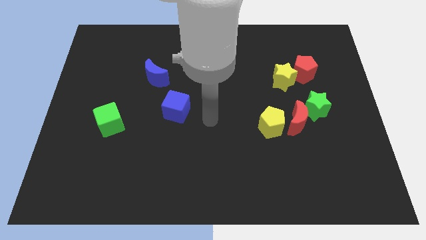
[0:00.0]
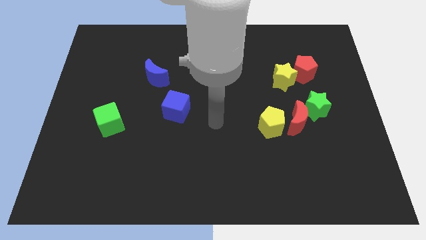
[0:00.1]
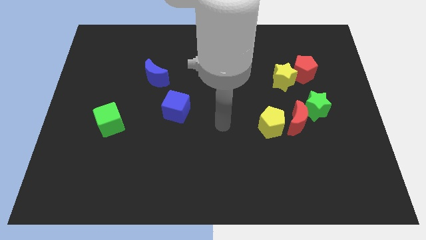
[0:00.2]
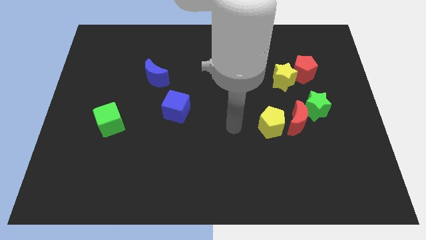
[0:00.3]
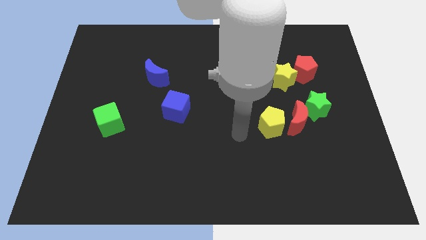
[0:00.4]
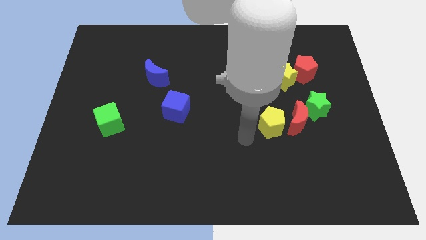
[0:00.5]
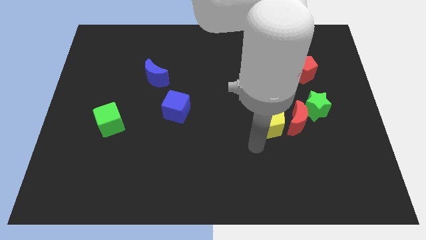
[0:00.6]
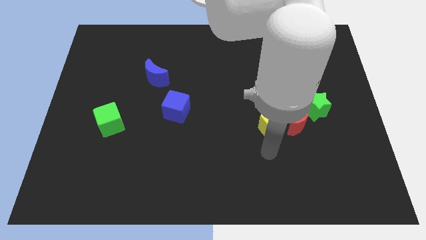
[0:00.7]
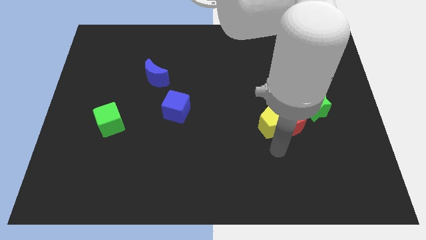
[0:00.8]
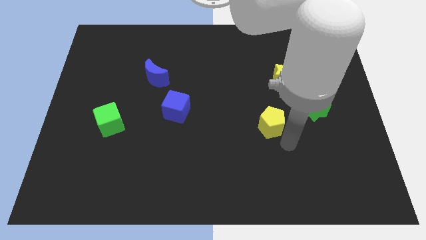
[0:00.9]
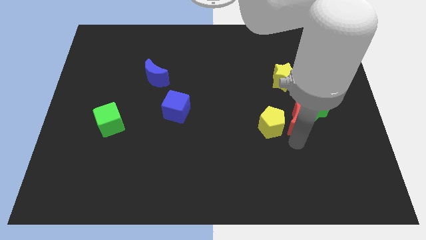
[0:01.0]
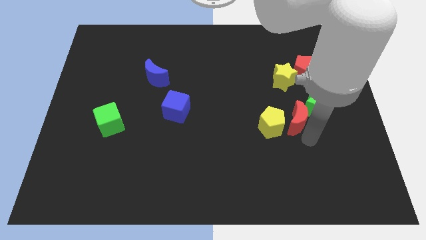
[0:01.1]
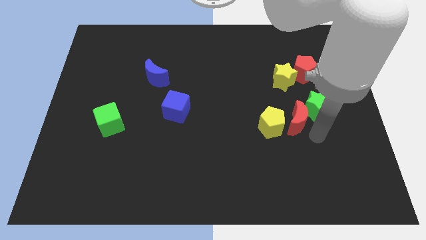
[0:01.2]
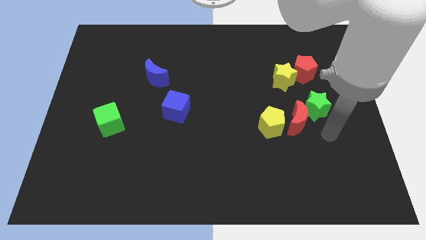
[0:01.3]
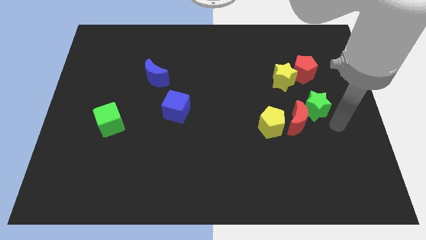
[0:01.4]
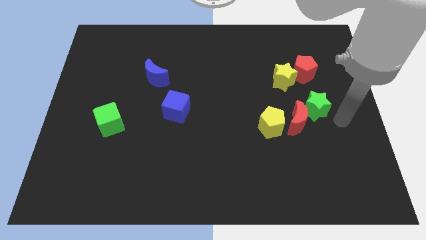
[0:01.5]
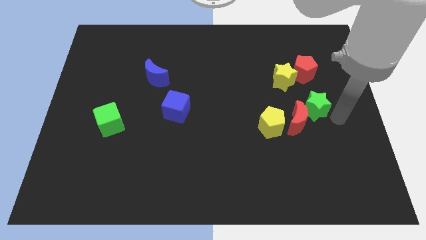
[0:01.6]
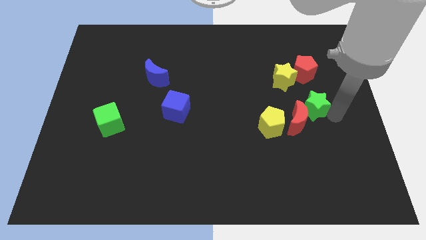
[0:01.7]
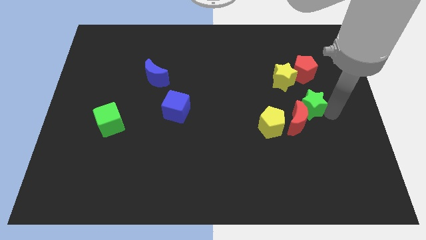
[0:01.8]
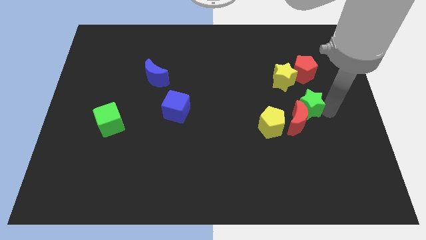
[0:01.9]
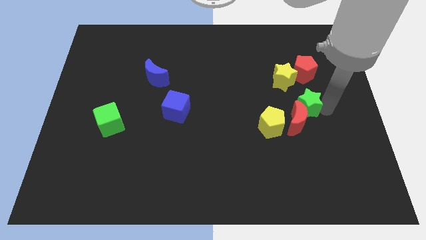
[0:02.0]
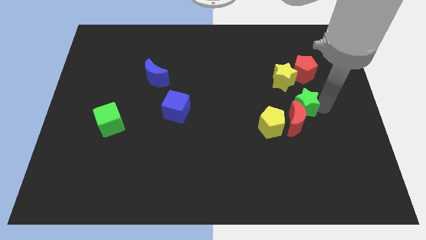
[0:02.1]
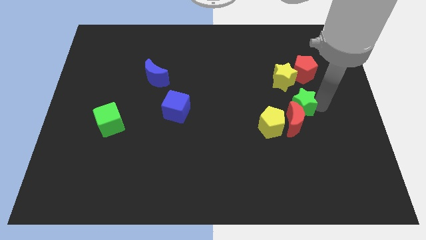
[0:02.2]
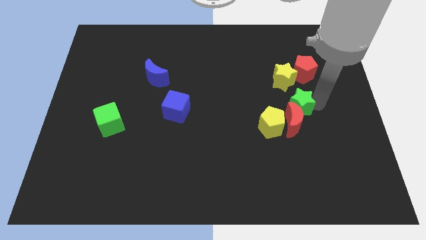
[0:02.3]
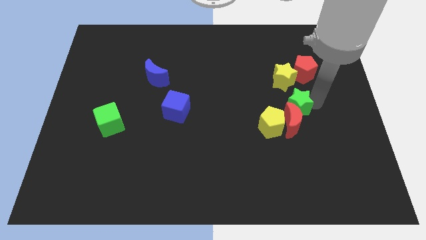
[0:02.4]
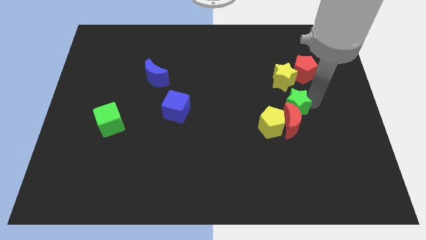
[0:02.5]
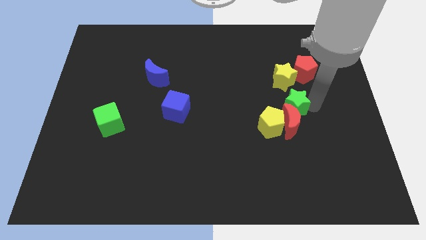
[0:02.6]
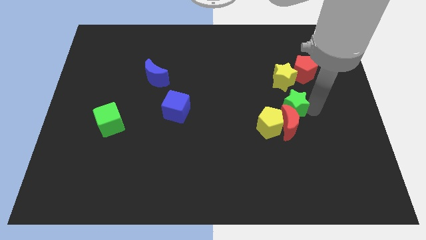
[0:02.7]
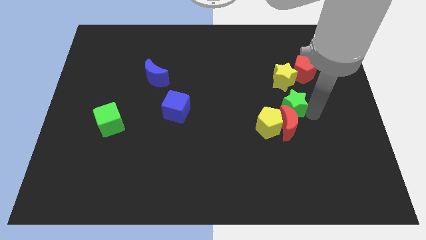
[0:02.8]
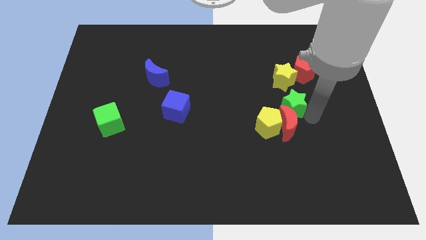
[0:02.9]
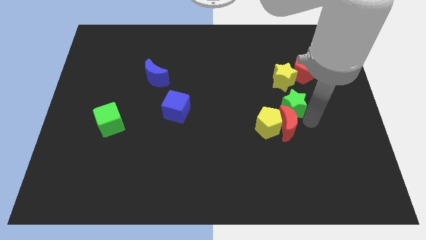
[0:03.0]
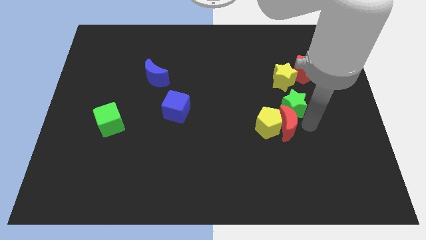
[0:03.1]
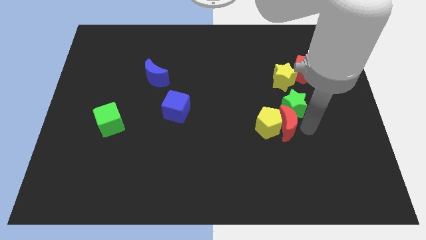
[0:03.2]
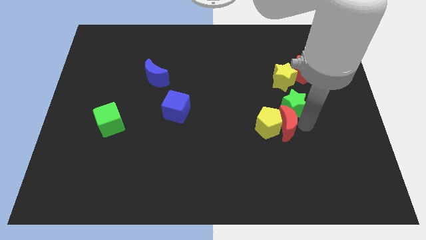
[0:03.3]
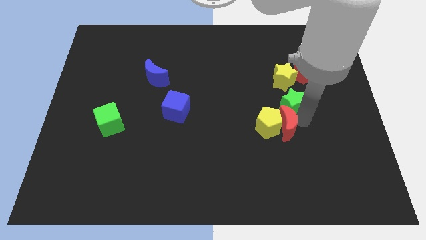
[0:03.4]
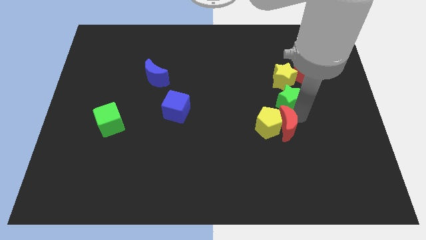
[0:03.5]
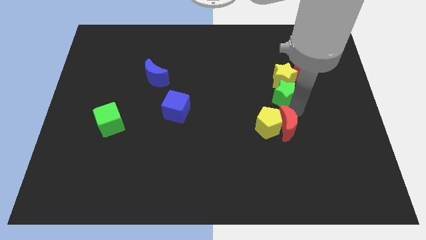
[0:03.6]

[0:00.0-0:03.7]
push the green star diagonally up and to the left somewhat

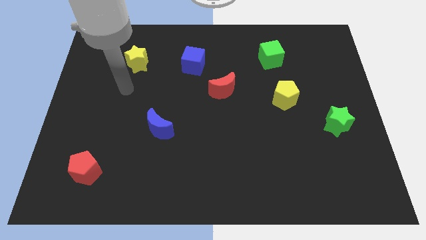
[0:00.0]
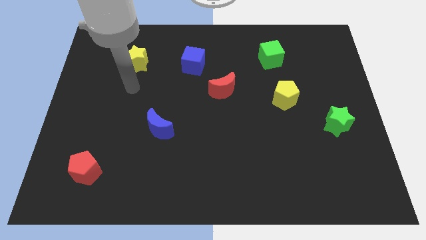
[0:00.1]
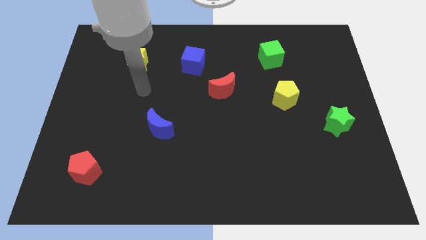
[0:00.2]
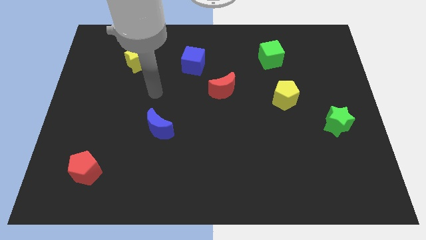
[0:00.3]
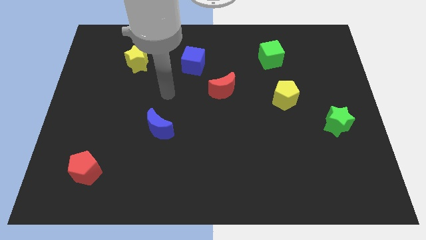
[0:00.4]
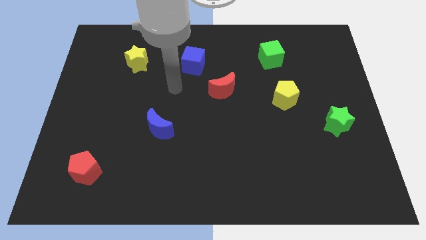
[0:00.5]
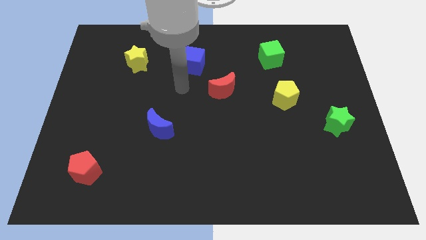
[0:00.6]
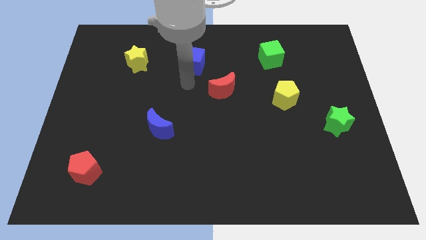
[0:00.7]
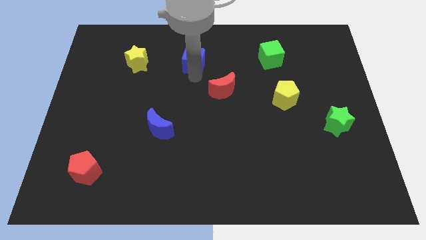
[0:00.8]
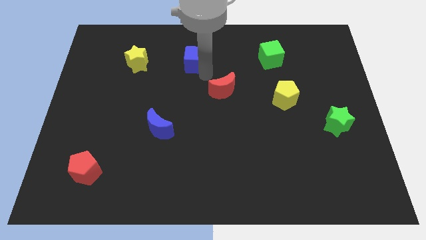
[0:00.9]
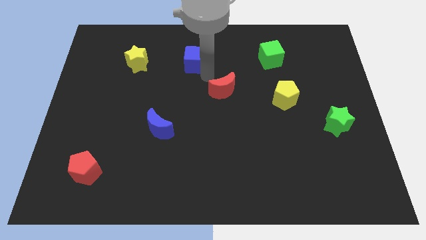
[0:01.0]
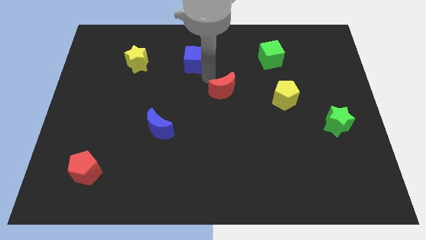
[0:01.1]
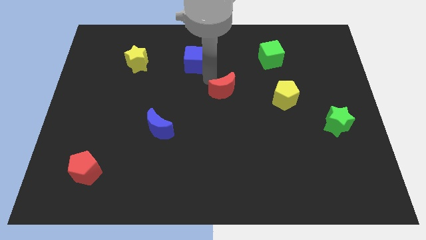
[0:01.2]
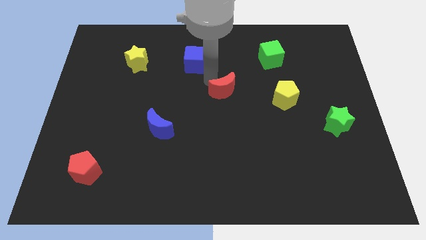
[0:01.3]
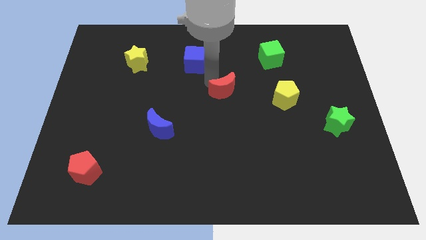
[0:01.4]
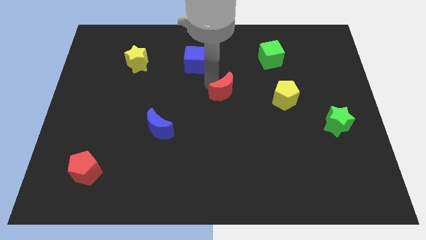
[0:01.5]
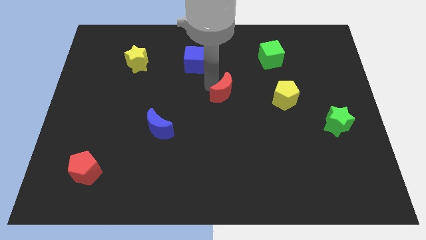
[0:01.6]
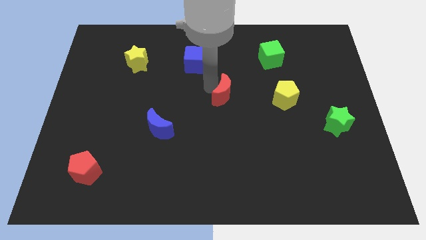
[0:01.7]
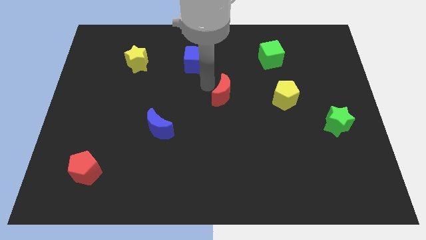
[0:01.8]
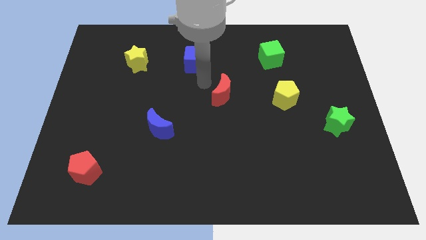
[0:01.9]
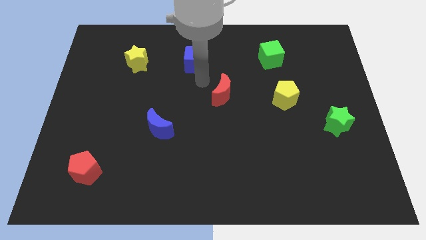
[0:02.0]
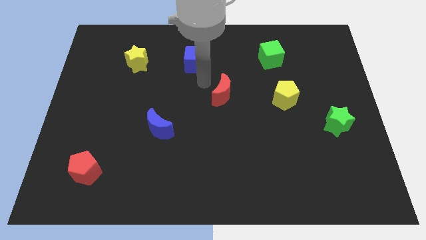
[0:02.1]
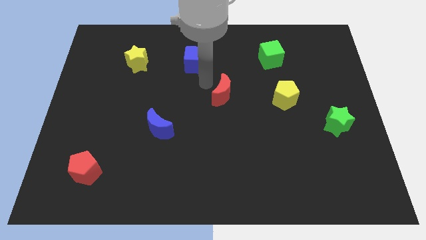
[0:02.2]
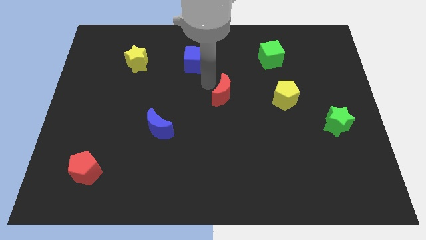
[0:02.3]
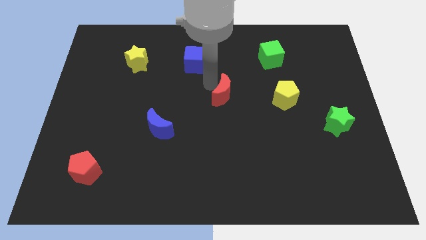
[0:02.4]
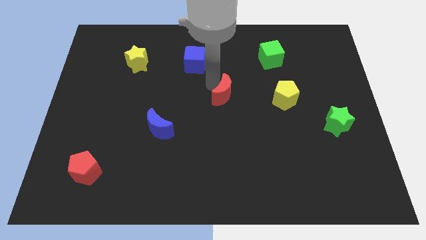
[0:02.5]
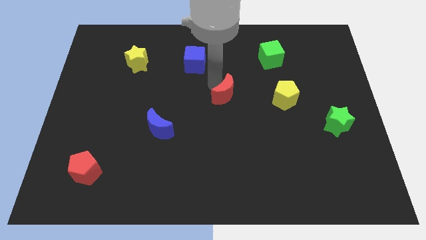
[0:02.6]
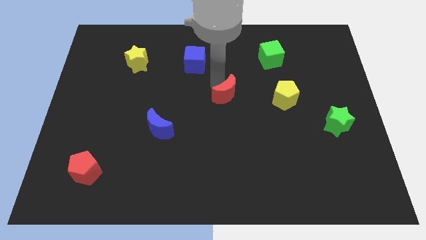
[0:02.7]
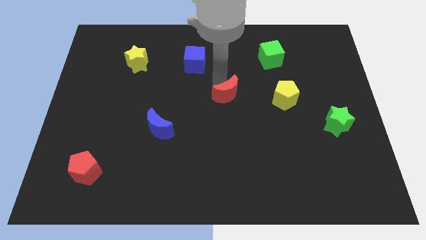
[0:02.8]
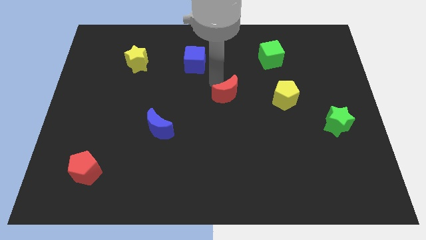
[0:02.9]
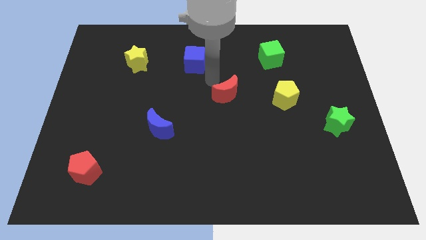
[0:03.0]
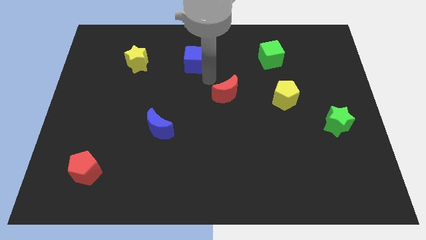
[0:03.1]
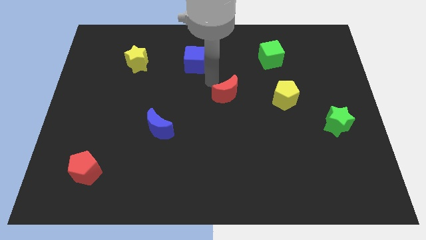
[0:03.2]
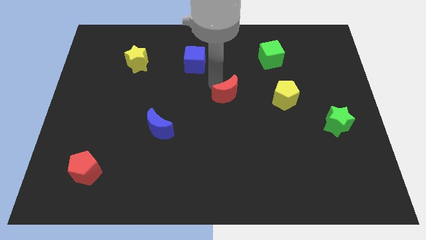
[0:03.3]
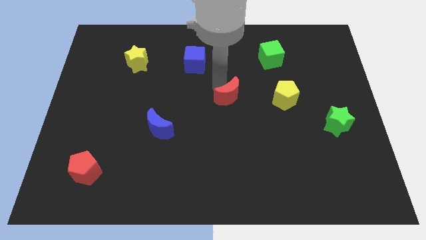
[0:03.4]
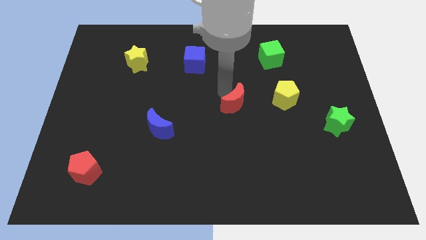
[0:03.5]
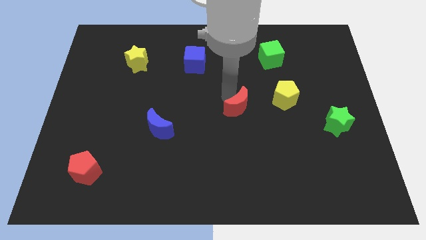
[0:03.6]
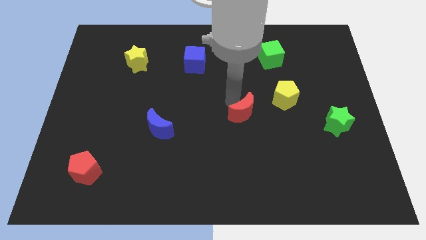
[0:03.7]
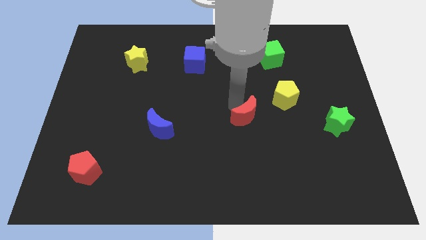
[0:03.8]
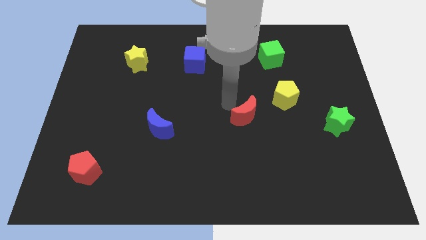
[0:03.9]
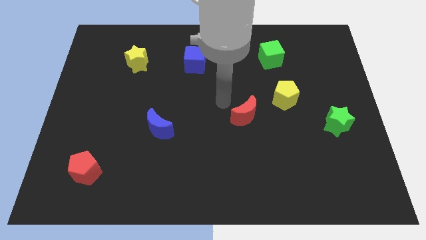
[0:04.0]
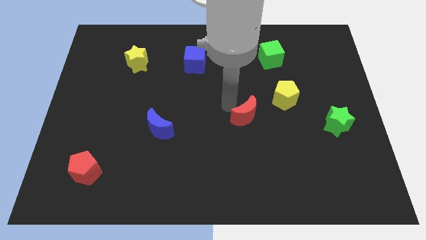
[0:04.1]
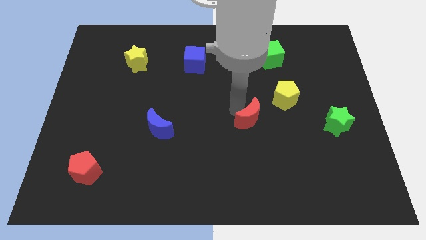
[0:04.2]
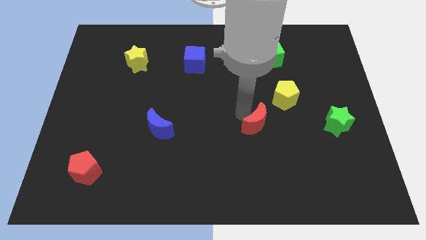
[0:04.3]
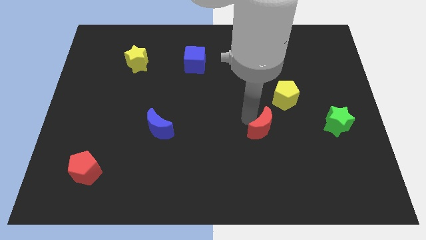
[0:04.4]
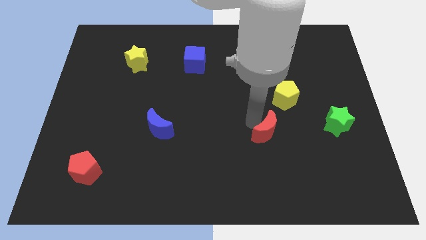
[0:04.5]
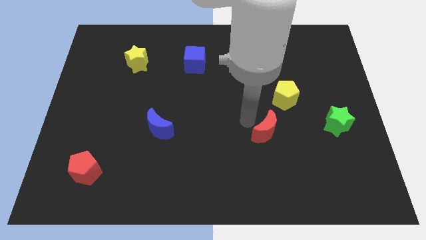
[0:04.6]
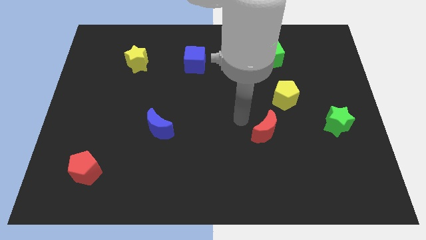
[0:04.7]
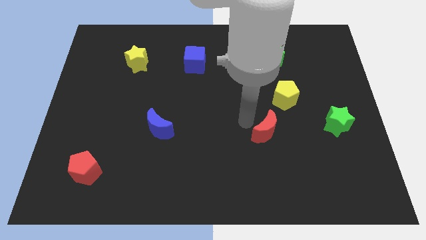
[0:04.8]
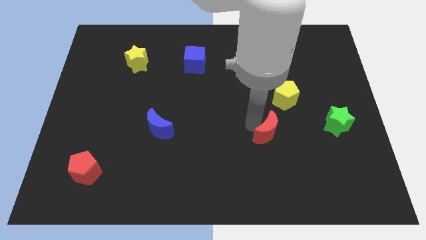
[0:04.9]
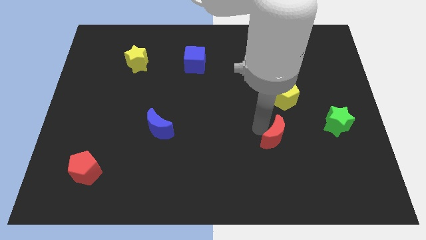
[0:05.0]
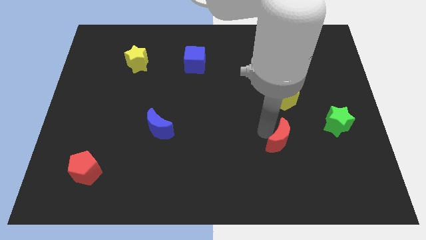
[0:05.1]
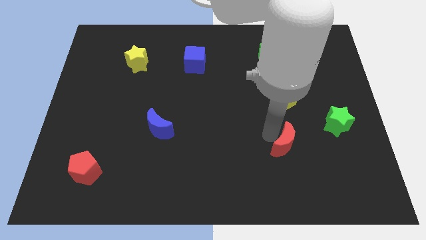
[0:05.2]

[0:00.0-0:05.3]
push the red moon downwards and to the right diagonally
